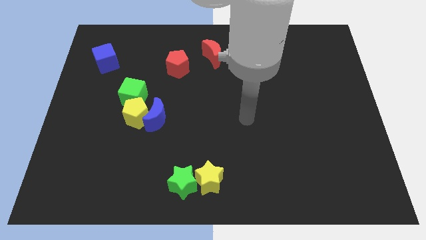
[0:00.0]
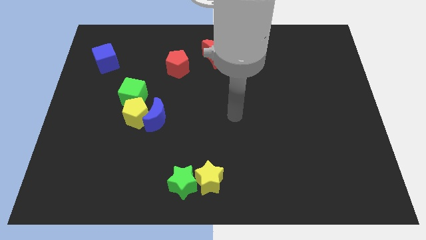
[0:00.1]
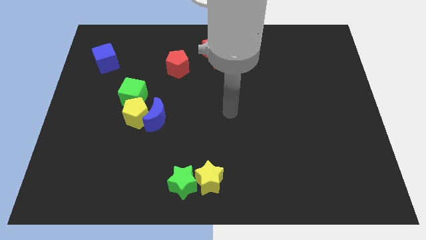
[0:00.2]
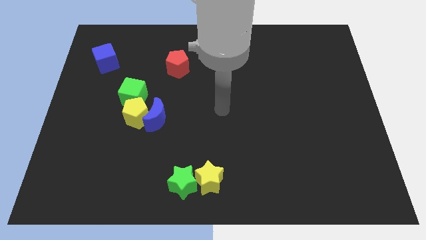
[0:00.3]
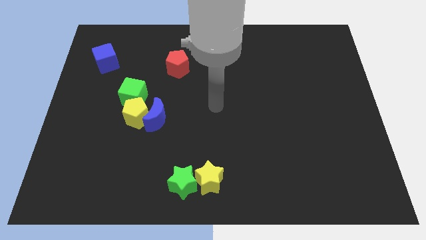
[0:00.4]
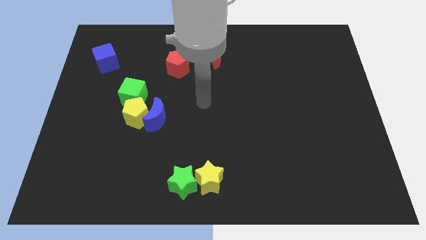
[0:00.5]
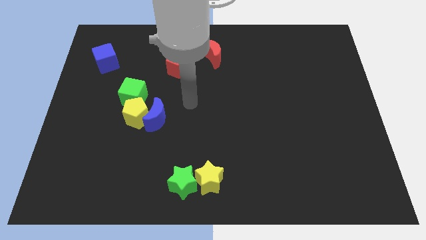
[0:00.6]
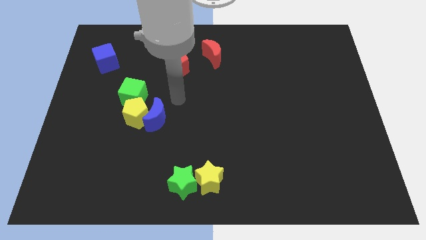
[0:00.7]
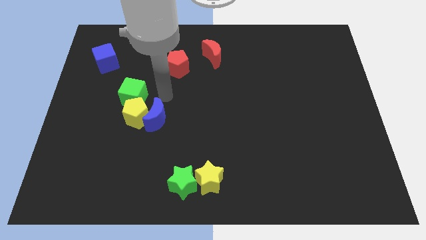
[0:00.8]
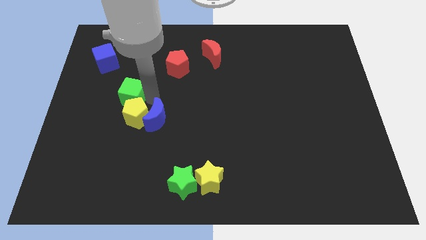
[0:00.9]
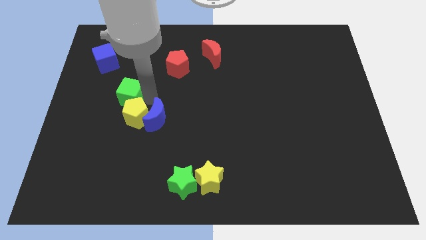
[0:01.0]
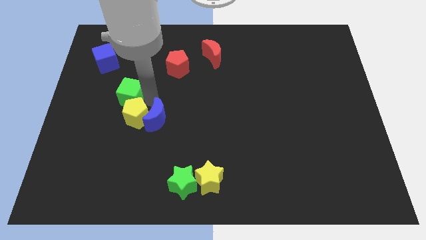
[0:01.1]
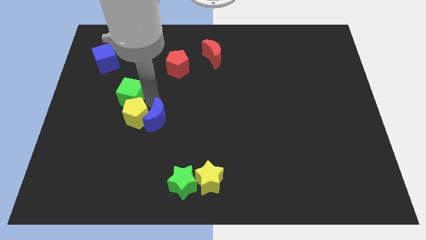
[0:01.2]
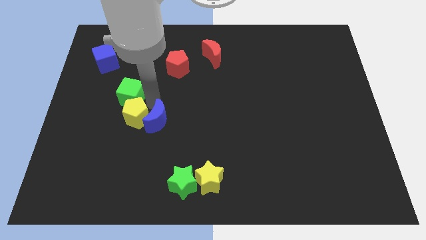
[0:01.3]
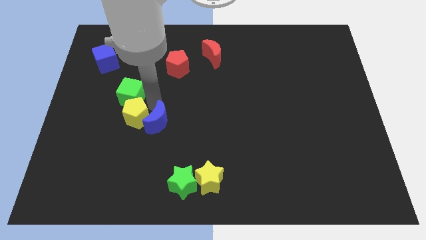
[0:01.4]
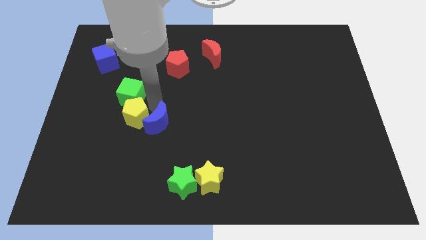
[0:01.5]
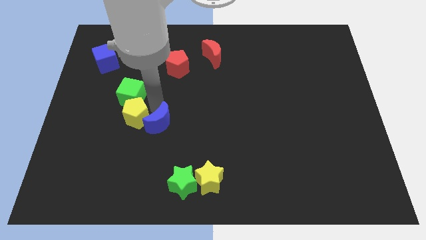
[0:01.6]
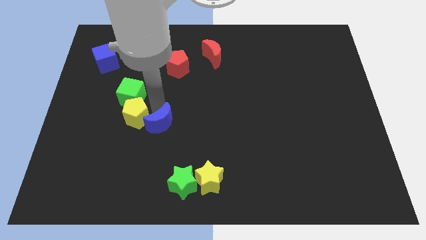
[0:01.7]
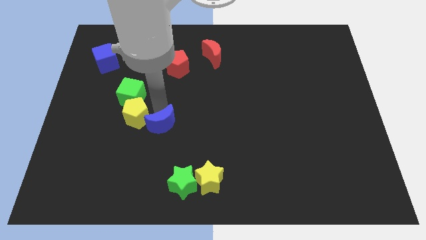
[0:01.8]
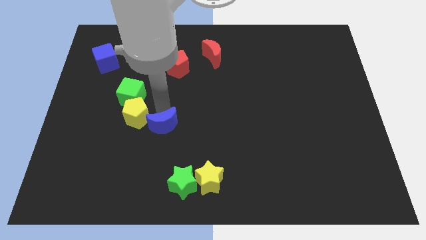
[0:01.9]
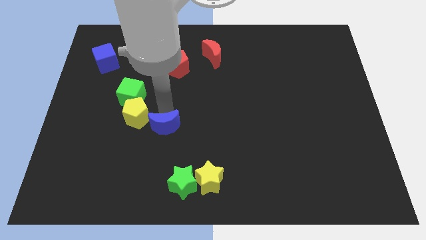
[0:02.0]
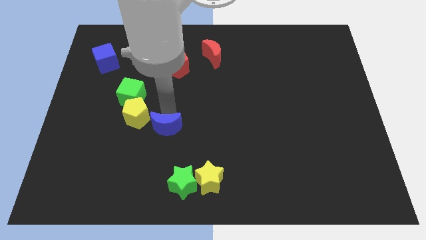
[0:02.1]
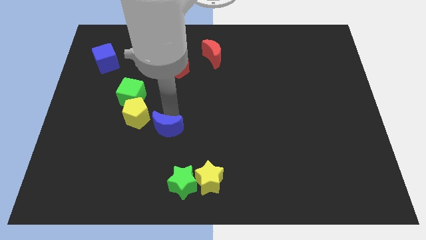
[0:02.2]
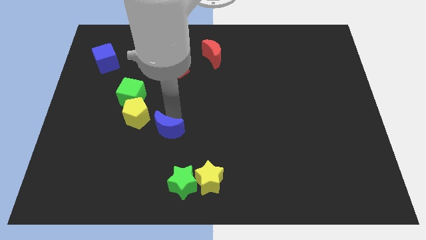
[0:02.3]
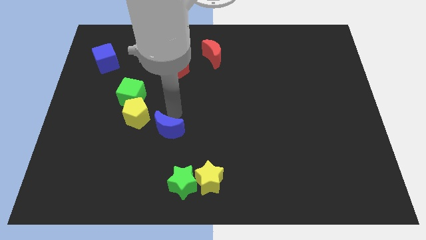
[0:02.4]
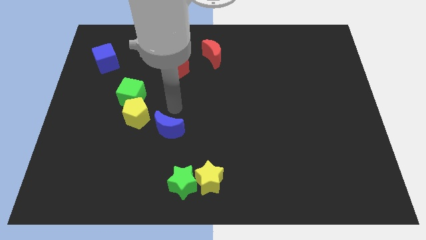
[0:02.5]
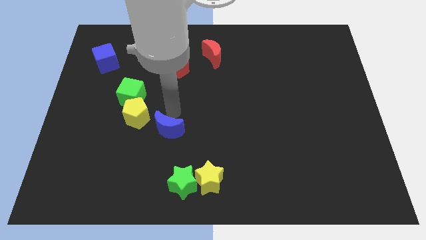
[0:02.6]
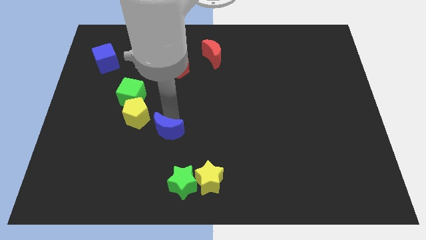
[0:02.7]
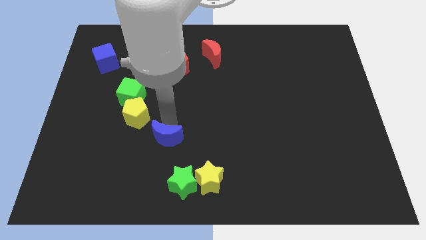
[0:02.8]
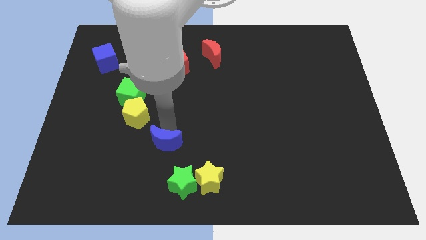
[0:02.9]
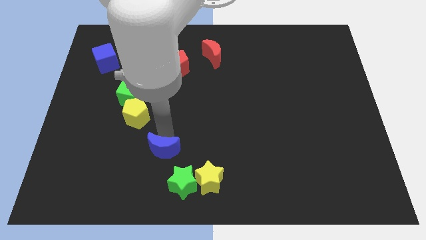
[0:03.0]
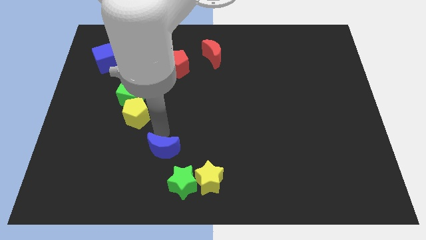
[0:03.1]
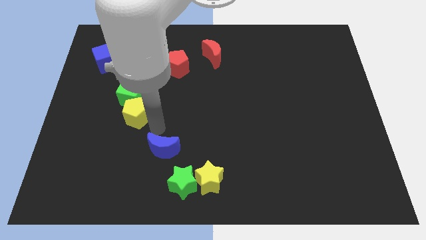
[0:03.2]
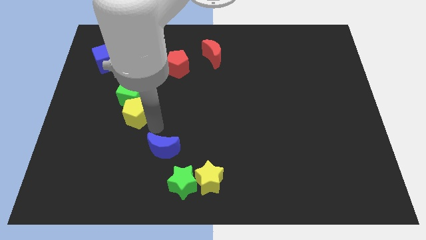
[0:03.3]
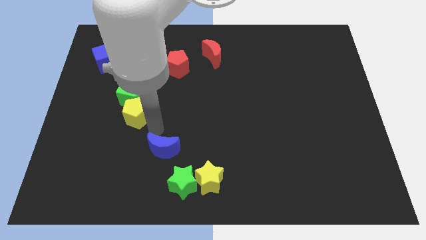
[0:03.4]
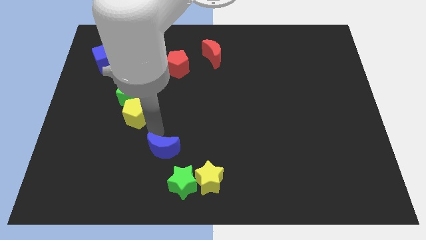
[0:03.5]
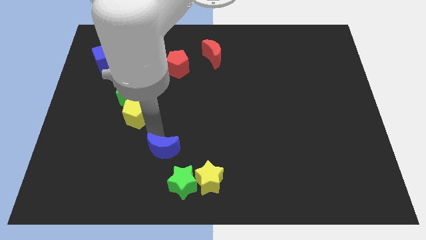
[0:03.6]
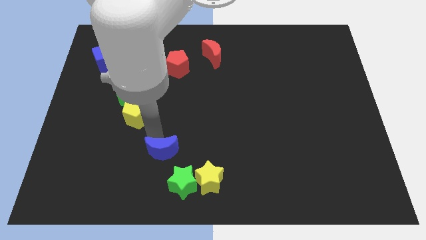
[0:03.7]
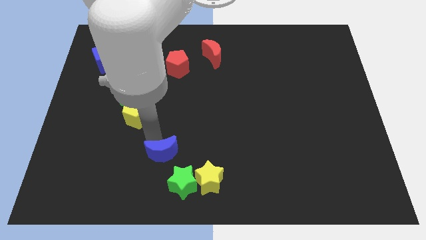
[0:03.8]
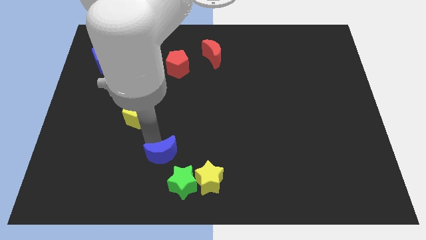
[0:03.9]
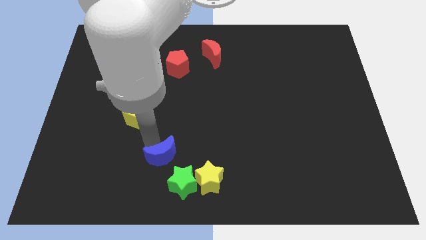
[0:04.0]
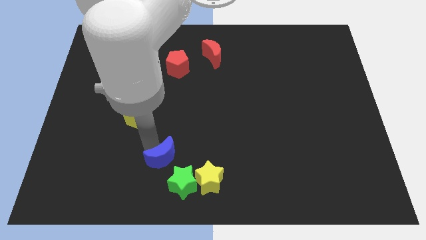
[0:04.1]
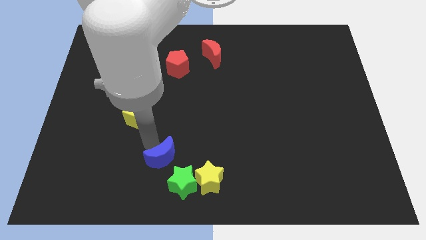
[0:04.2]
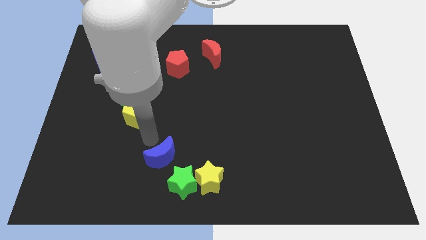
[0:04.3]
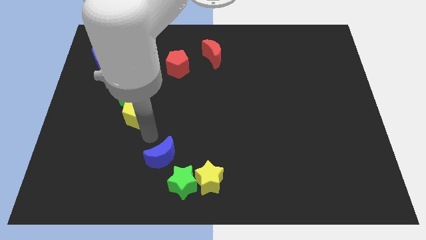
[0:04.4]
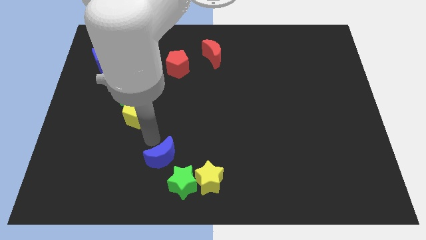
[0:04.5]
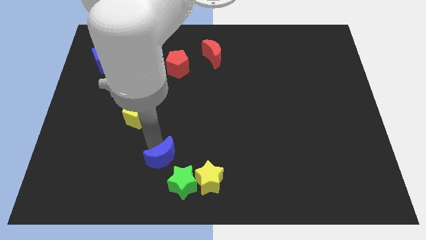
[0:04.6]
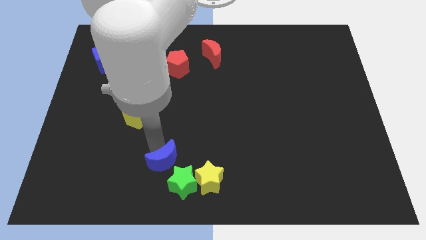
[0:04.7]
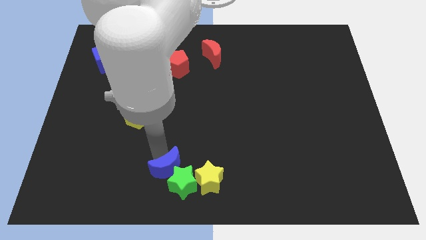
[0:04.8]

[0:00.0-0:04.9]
slide the blue moon next to the green star

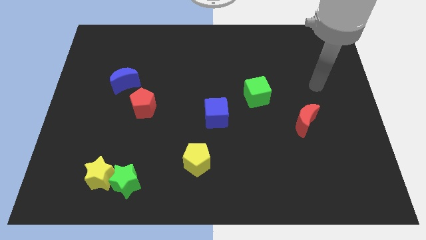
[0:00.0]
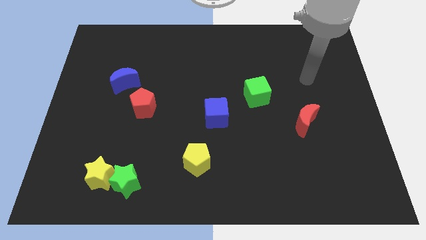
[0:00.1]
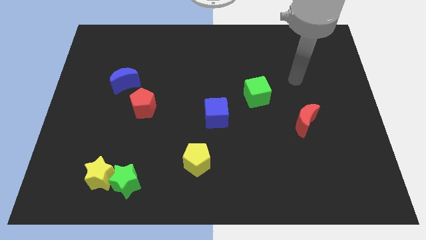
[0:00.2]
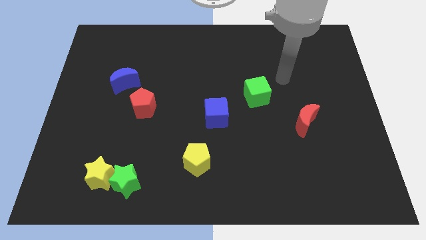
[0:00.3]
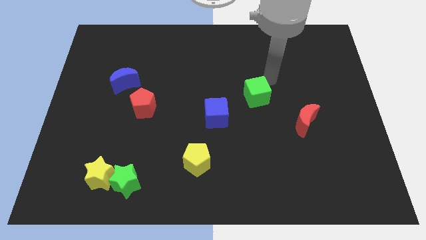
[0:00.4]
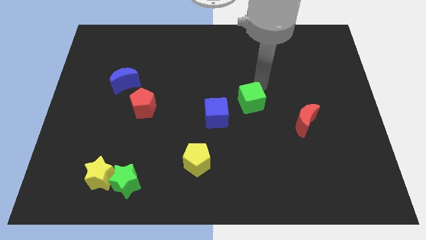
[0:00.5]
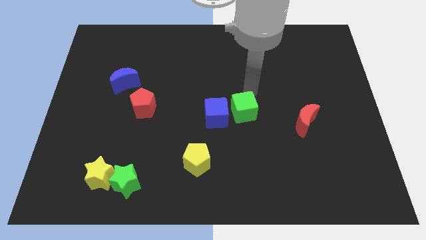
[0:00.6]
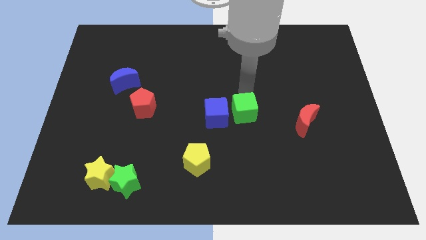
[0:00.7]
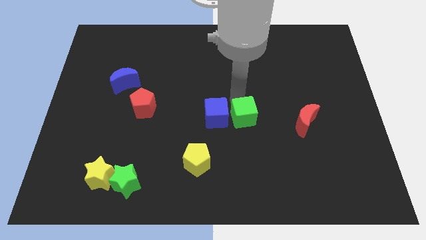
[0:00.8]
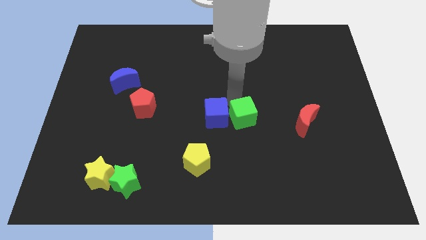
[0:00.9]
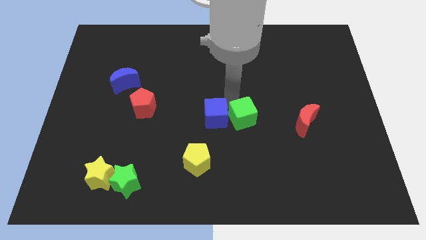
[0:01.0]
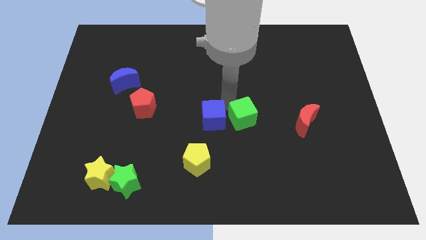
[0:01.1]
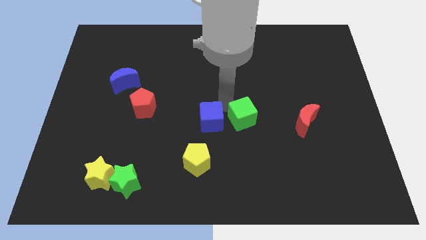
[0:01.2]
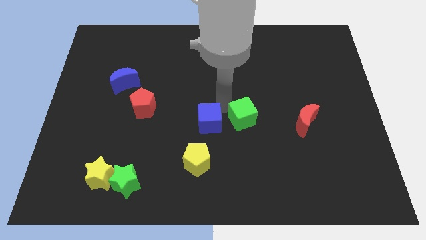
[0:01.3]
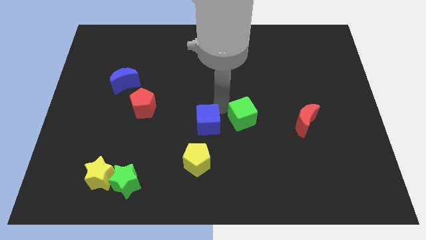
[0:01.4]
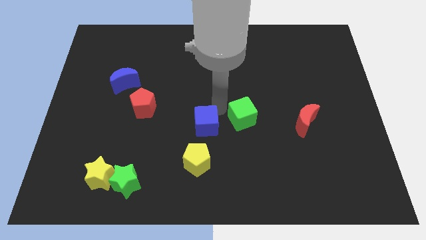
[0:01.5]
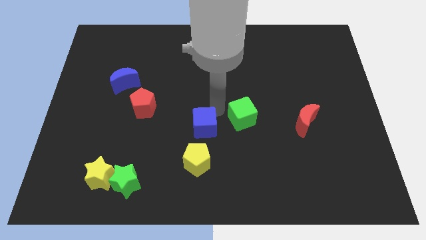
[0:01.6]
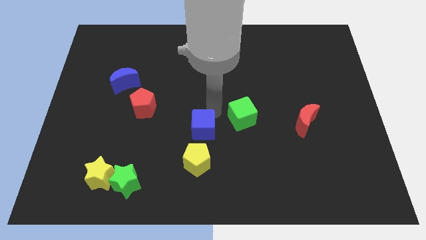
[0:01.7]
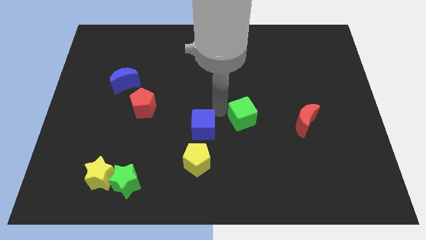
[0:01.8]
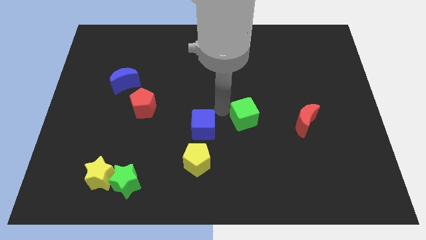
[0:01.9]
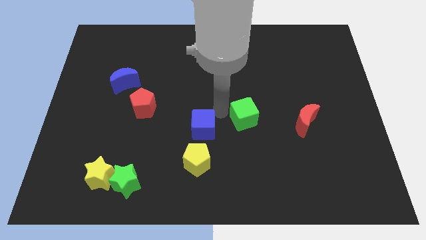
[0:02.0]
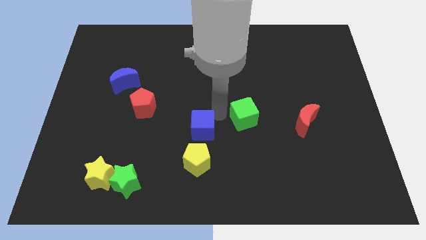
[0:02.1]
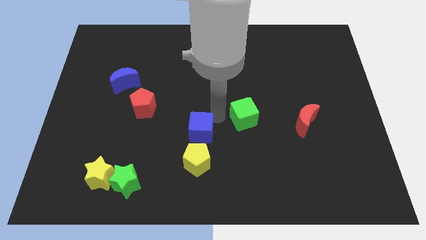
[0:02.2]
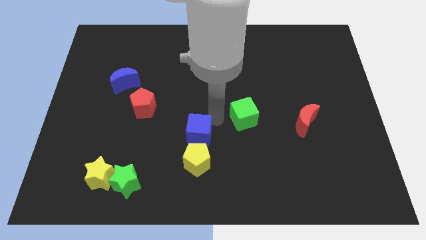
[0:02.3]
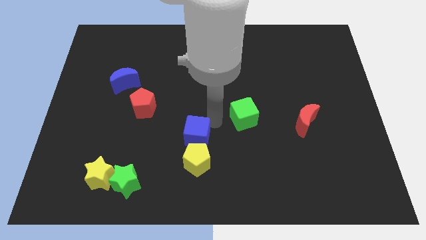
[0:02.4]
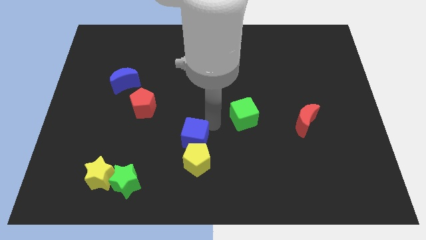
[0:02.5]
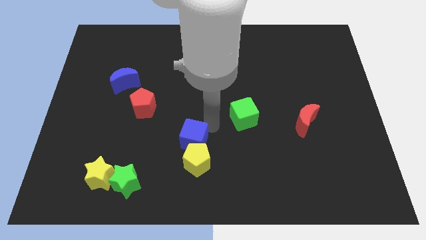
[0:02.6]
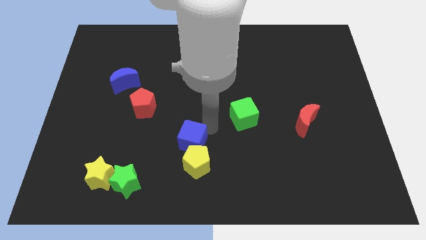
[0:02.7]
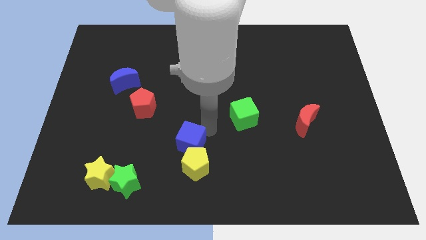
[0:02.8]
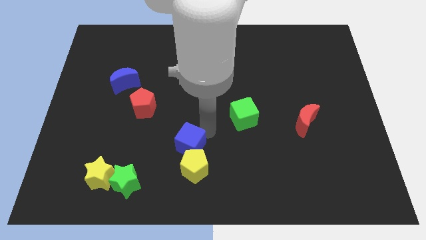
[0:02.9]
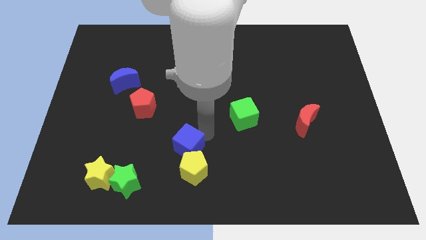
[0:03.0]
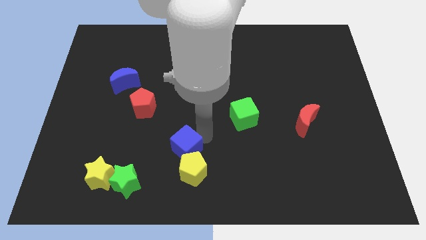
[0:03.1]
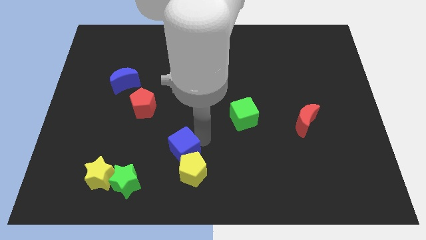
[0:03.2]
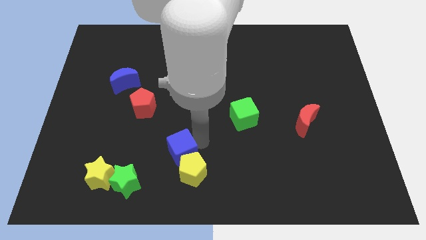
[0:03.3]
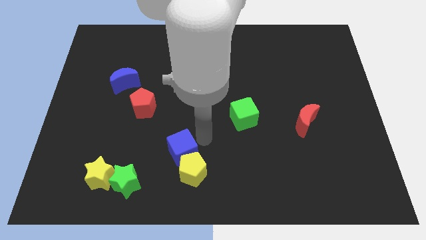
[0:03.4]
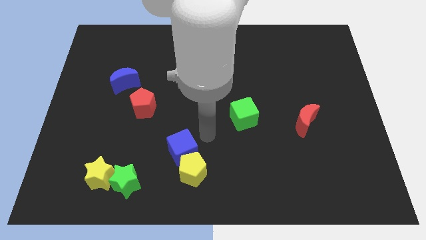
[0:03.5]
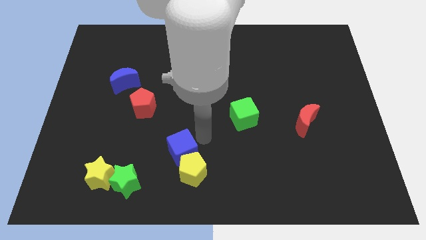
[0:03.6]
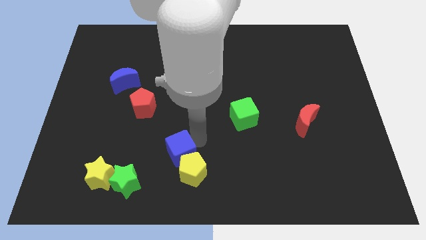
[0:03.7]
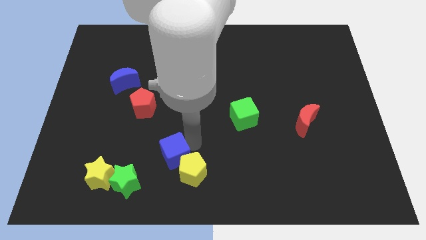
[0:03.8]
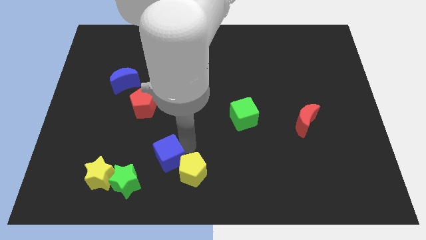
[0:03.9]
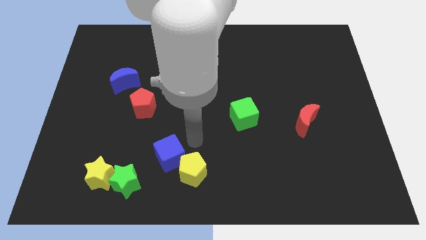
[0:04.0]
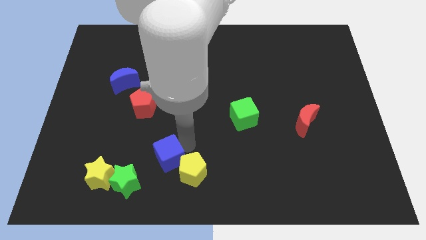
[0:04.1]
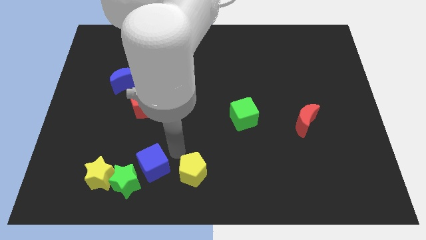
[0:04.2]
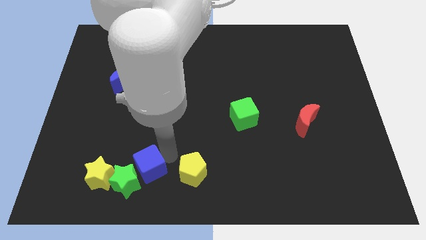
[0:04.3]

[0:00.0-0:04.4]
push the blue cube towards the green star
